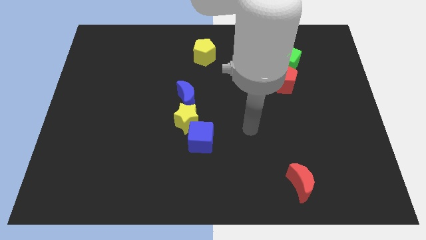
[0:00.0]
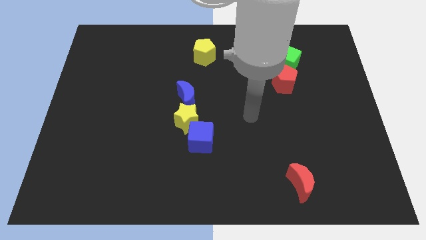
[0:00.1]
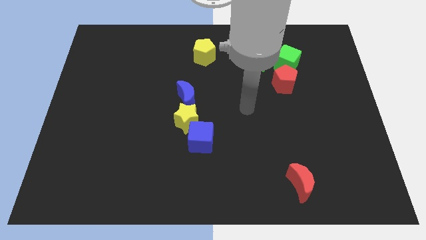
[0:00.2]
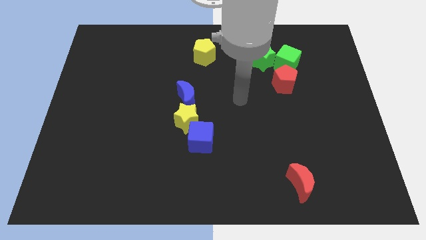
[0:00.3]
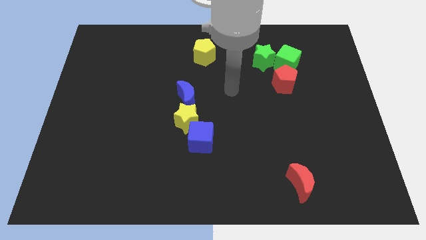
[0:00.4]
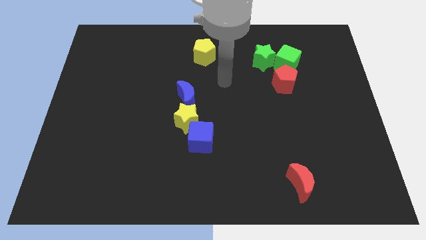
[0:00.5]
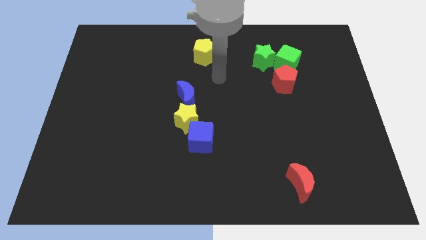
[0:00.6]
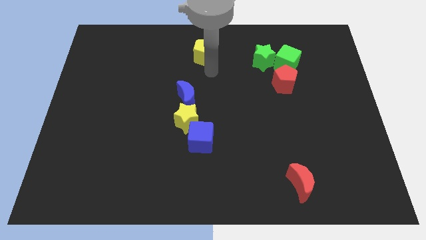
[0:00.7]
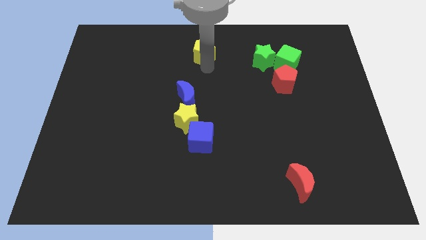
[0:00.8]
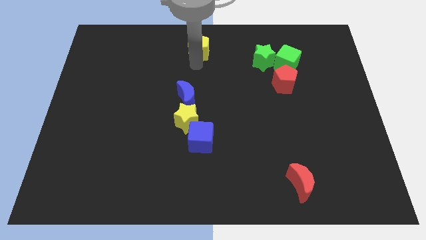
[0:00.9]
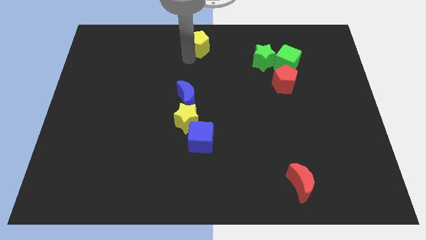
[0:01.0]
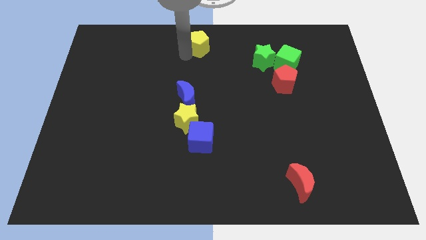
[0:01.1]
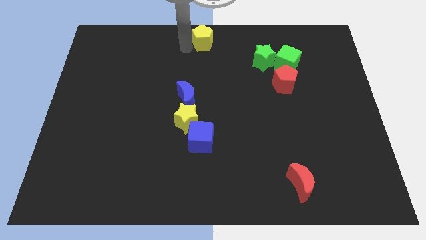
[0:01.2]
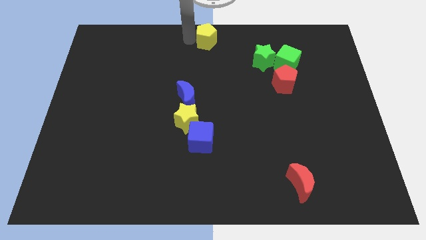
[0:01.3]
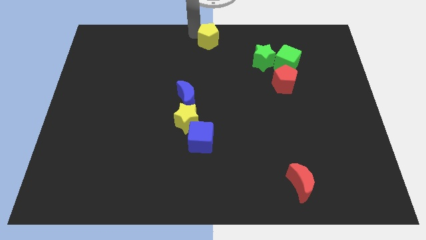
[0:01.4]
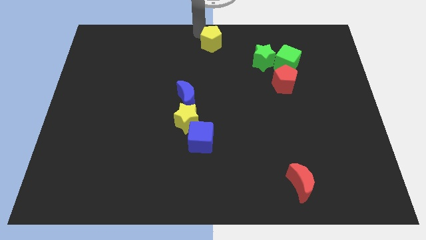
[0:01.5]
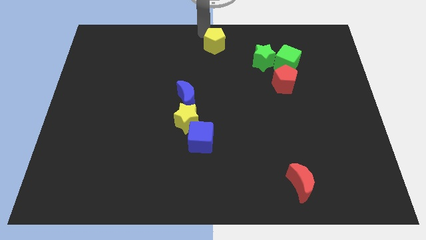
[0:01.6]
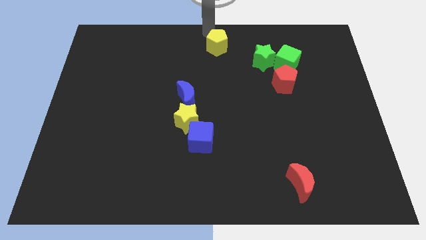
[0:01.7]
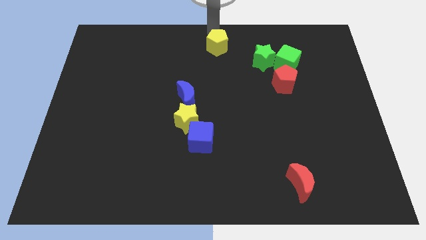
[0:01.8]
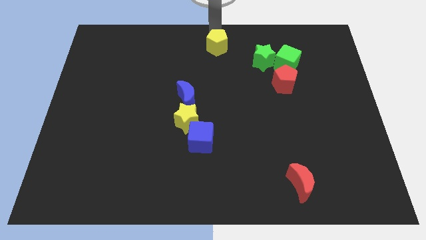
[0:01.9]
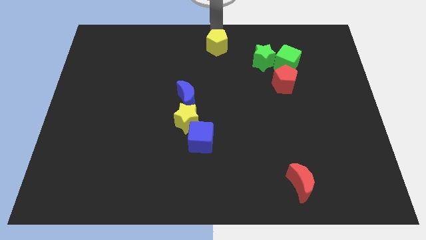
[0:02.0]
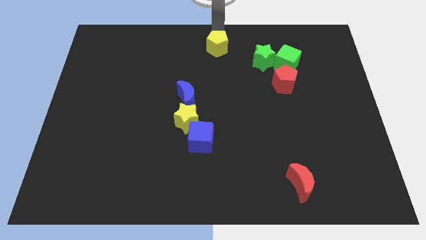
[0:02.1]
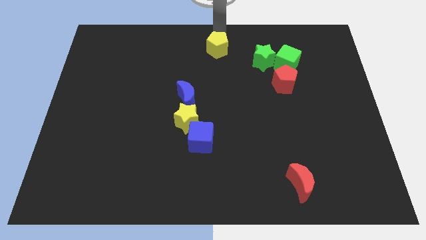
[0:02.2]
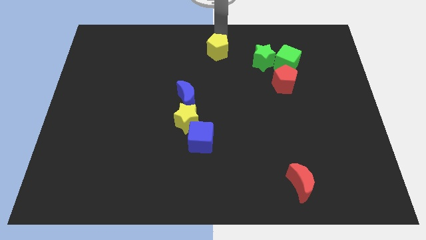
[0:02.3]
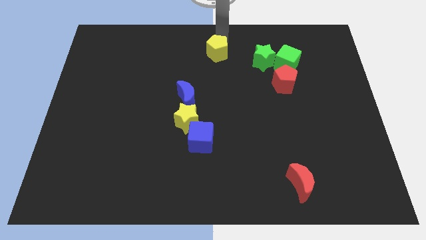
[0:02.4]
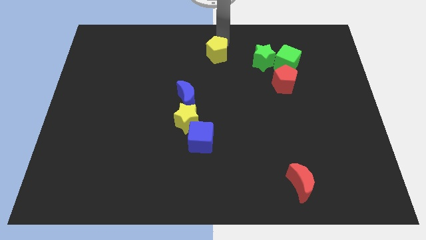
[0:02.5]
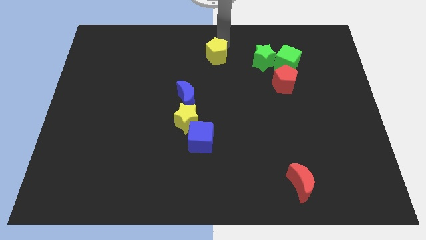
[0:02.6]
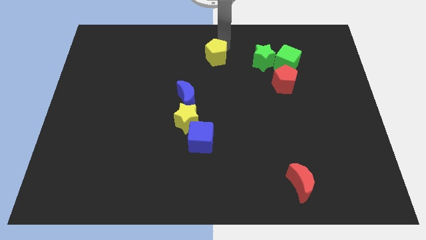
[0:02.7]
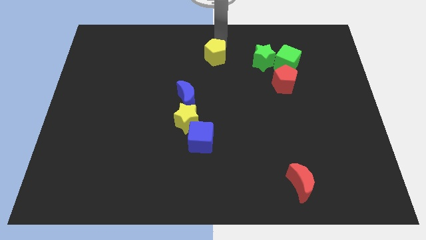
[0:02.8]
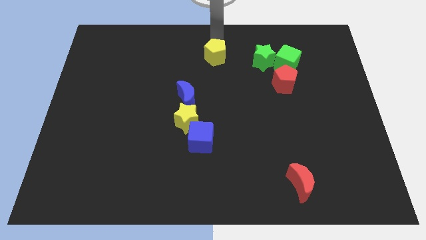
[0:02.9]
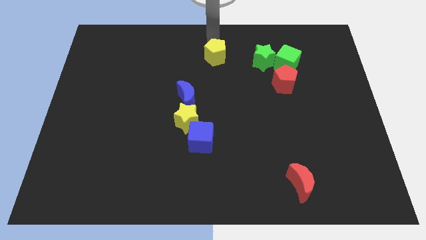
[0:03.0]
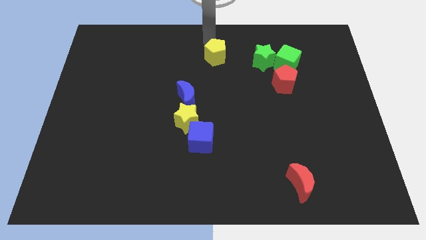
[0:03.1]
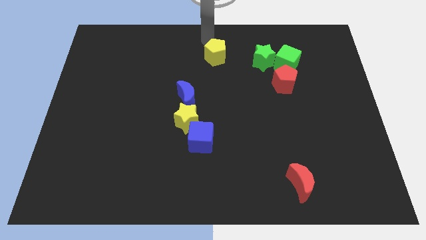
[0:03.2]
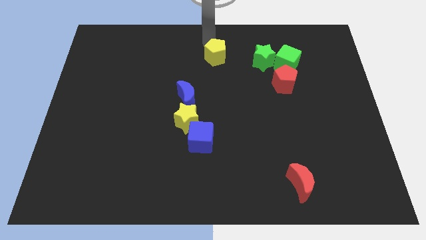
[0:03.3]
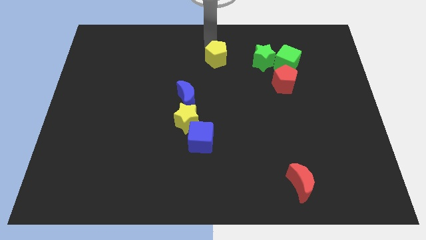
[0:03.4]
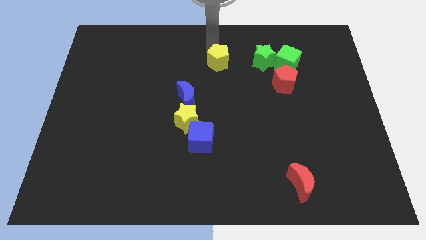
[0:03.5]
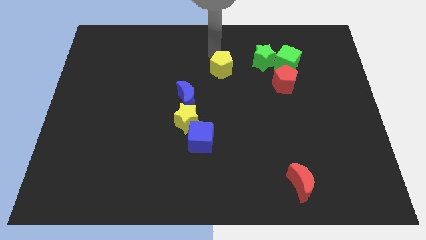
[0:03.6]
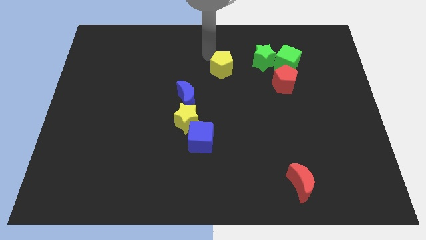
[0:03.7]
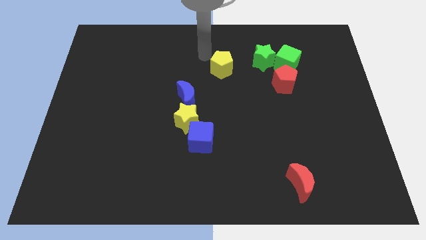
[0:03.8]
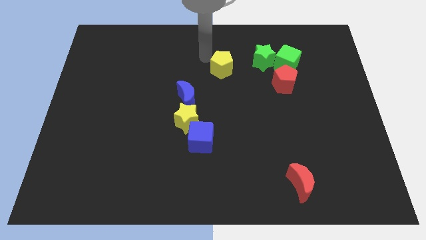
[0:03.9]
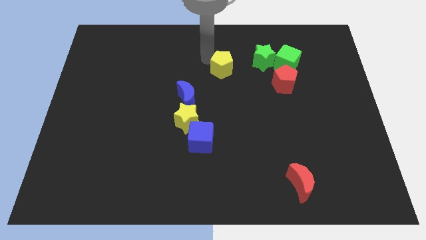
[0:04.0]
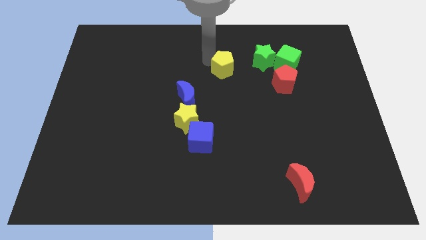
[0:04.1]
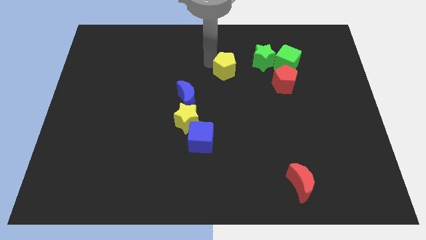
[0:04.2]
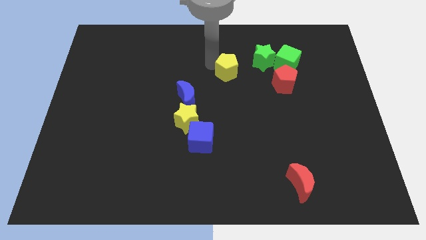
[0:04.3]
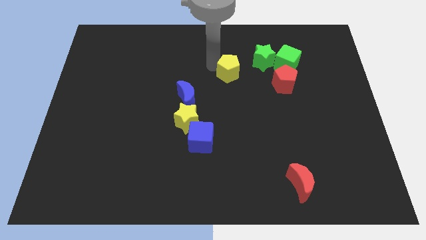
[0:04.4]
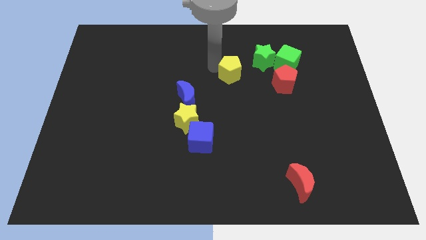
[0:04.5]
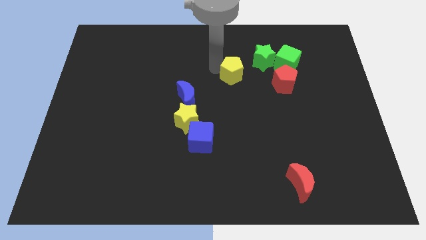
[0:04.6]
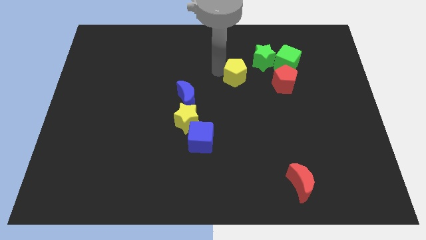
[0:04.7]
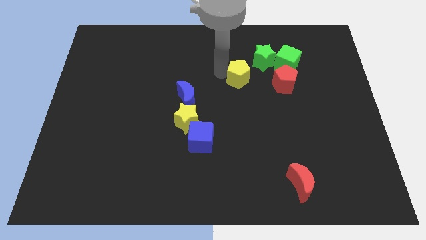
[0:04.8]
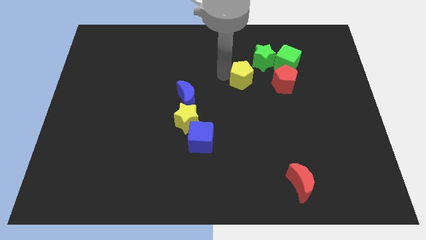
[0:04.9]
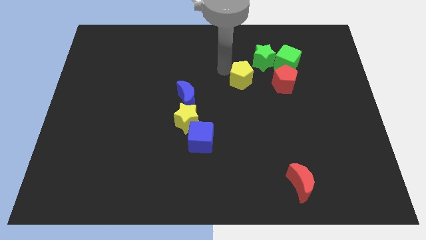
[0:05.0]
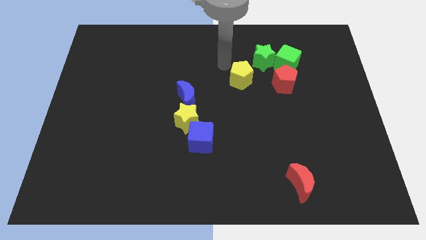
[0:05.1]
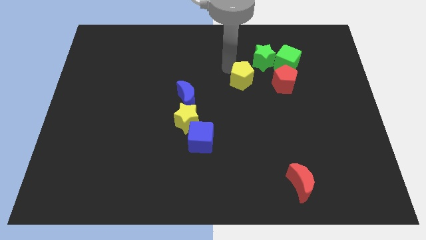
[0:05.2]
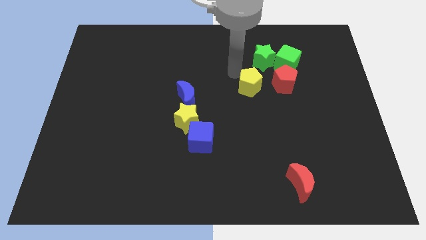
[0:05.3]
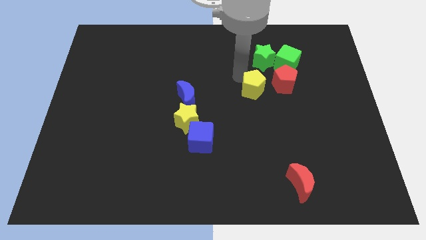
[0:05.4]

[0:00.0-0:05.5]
slide the yellow pentagon diagonally down and to the left of the red pentagon
